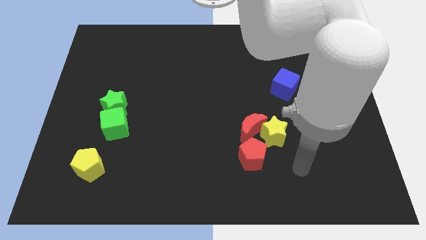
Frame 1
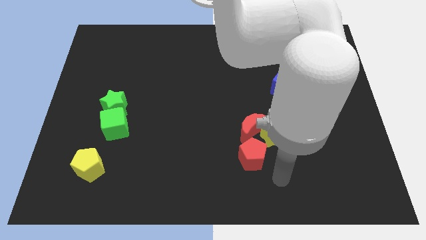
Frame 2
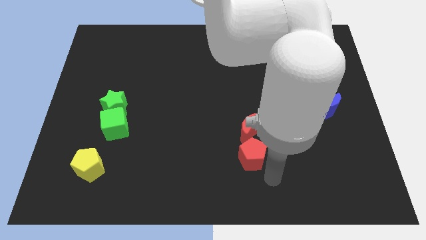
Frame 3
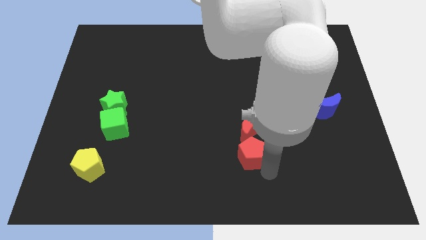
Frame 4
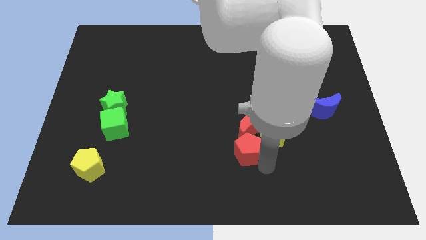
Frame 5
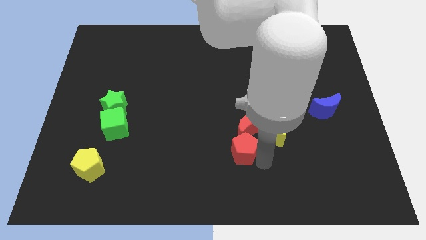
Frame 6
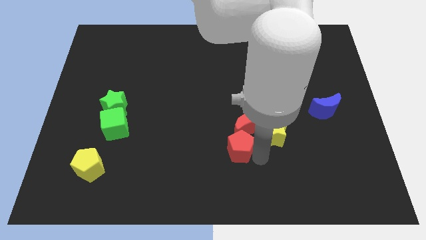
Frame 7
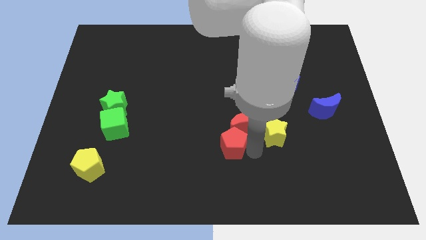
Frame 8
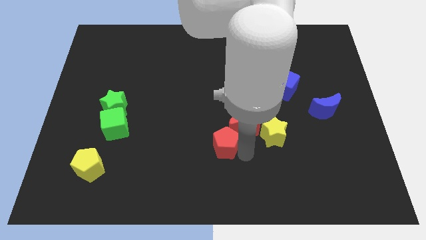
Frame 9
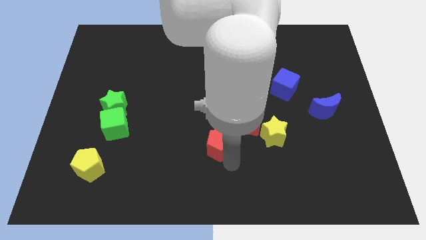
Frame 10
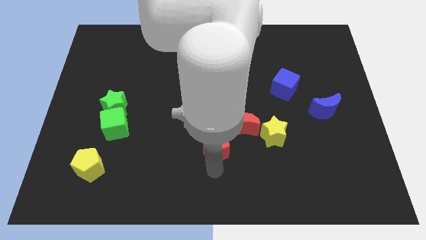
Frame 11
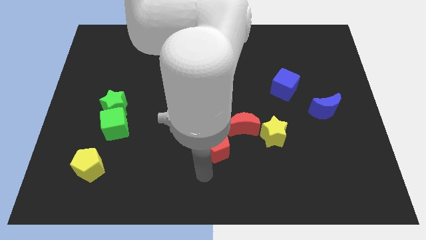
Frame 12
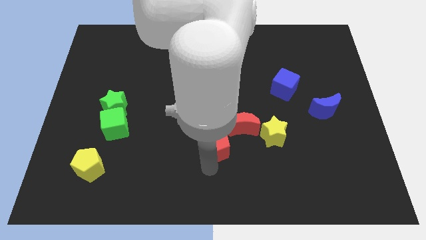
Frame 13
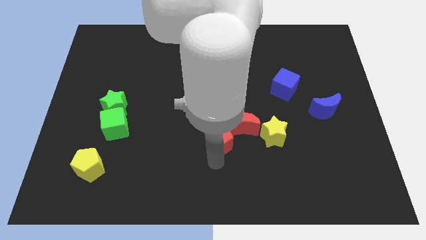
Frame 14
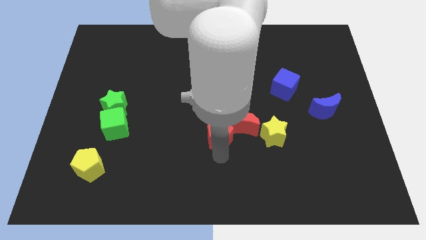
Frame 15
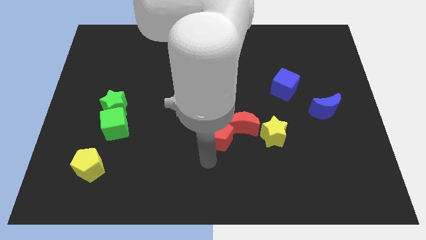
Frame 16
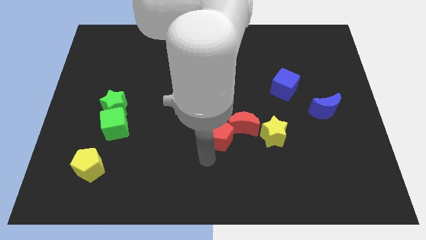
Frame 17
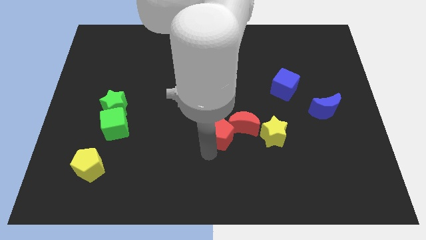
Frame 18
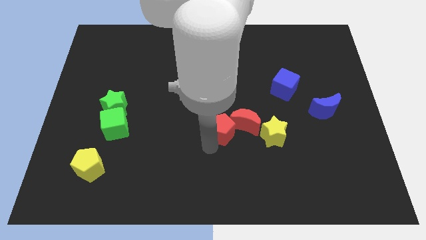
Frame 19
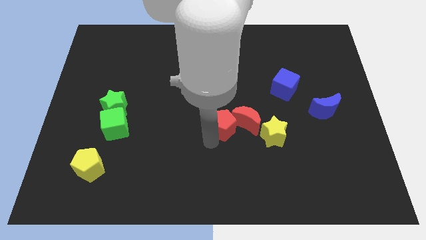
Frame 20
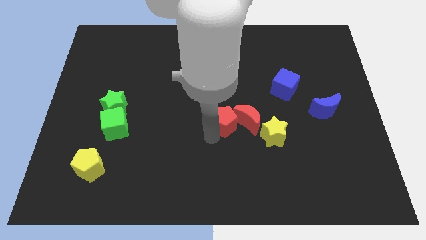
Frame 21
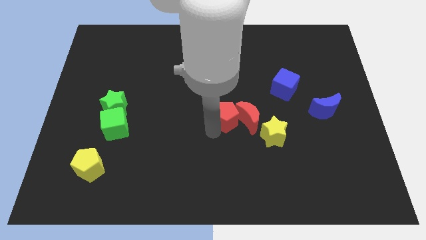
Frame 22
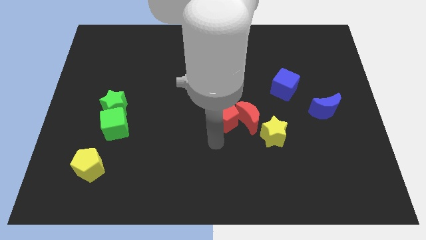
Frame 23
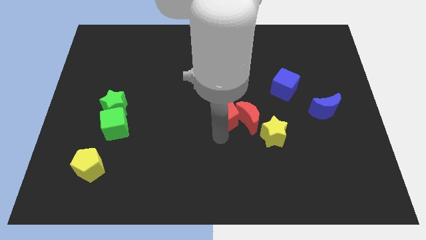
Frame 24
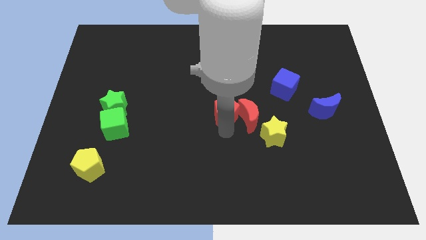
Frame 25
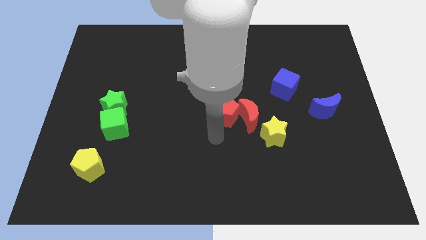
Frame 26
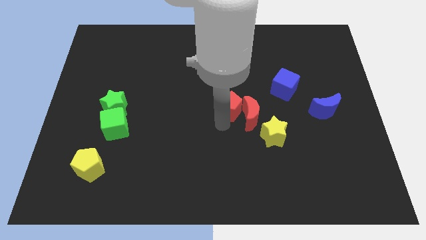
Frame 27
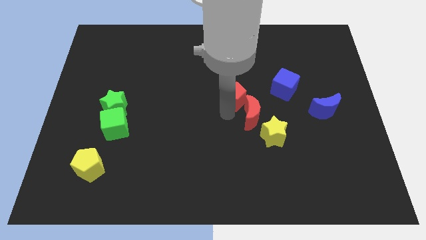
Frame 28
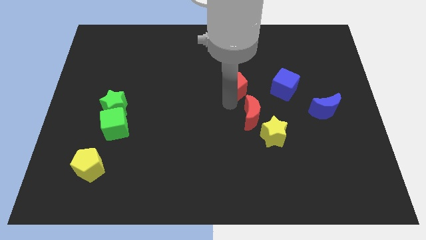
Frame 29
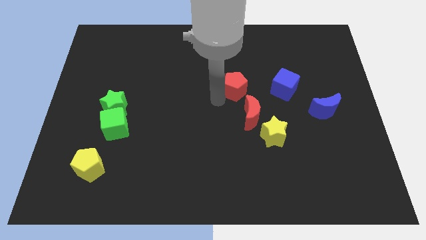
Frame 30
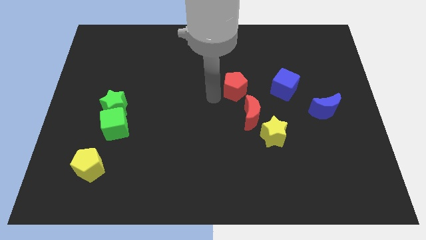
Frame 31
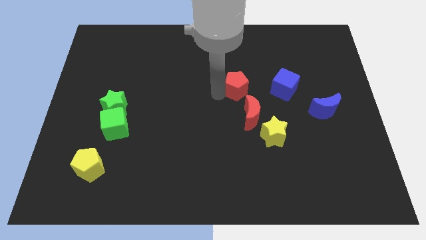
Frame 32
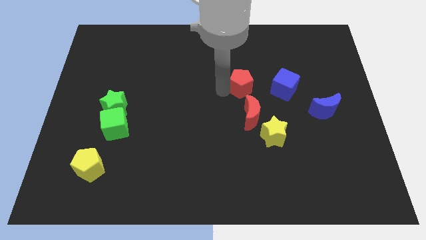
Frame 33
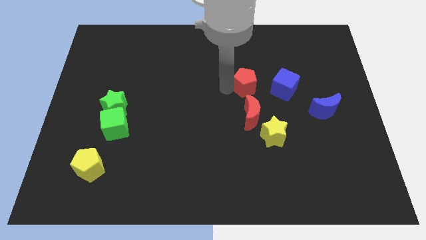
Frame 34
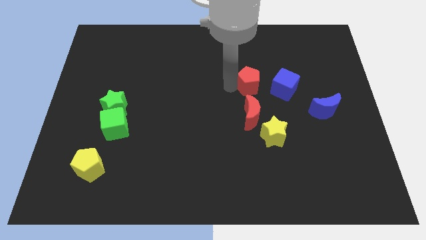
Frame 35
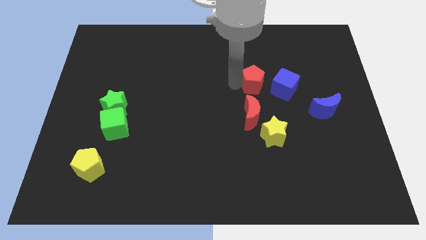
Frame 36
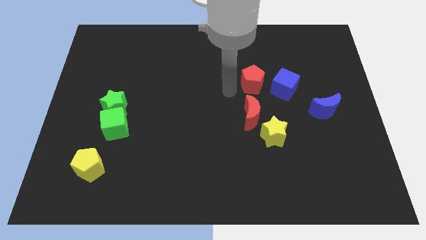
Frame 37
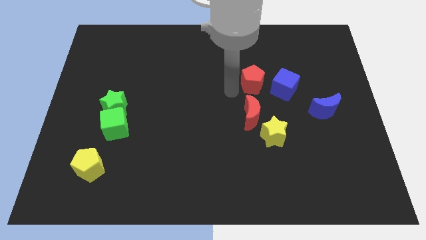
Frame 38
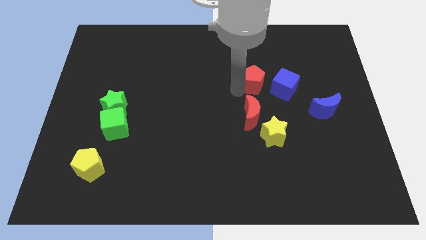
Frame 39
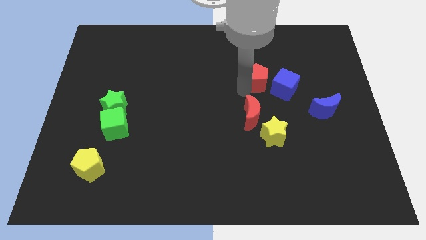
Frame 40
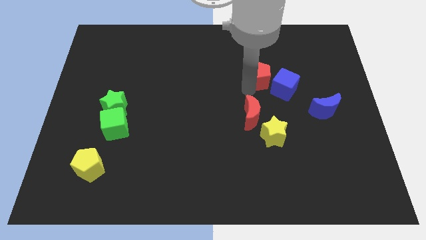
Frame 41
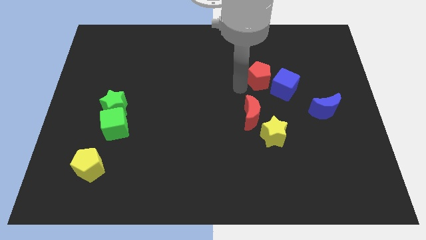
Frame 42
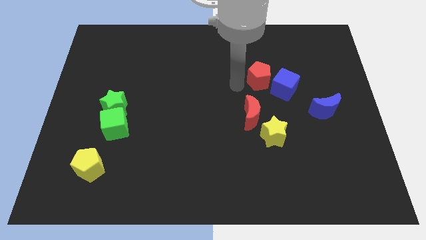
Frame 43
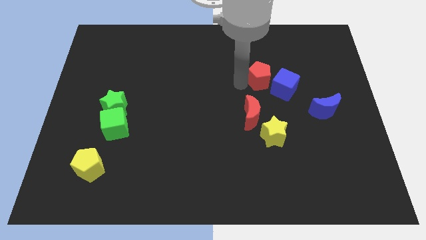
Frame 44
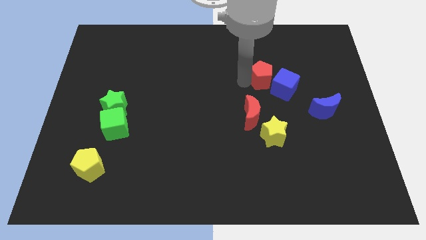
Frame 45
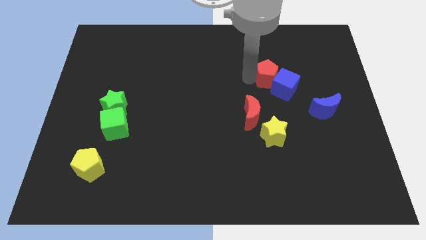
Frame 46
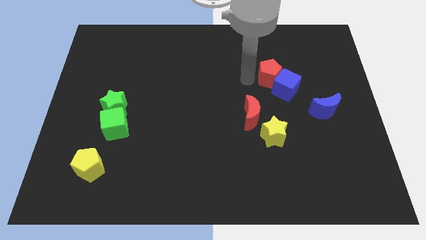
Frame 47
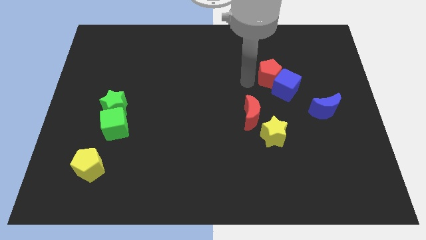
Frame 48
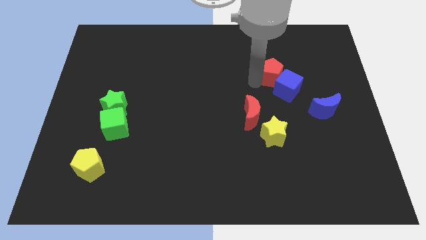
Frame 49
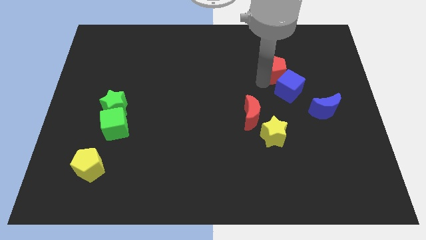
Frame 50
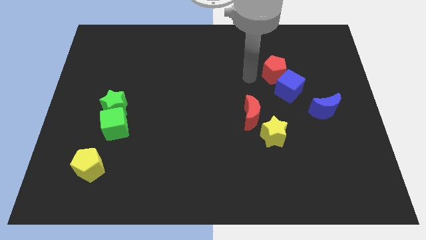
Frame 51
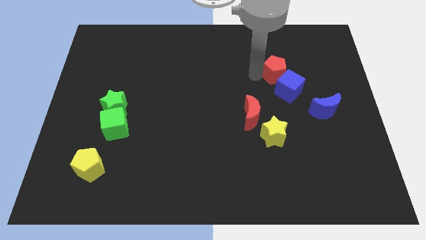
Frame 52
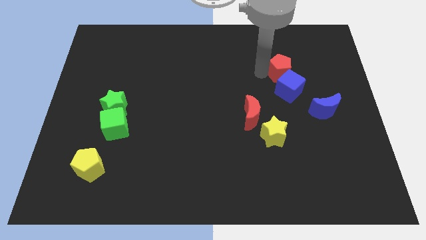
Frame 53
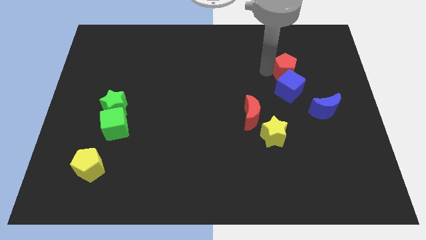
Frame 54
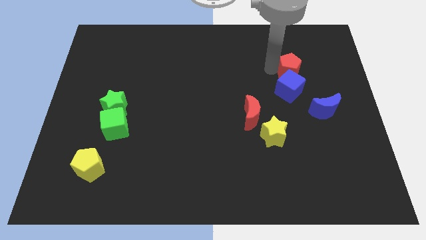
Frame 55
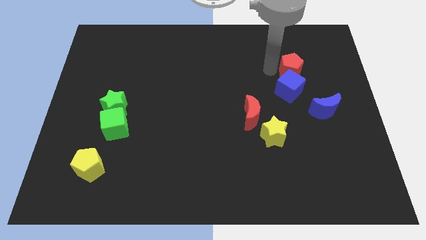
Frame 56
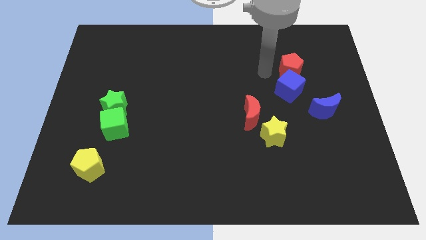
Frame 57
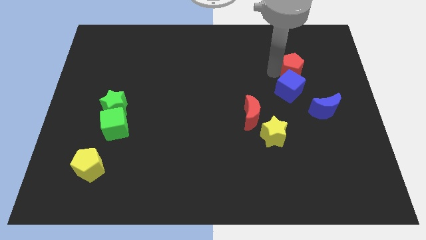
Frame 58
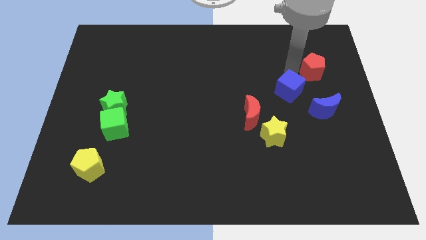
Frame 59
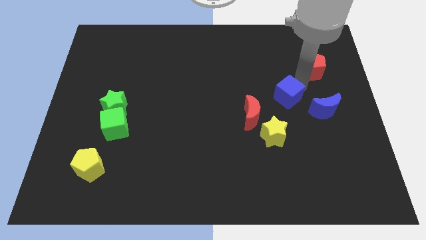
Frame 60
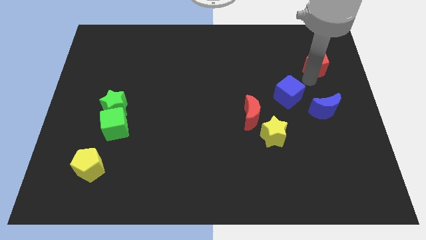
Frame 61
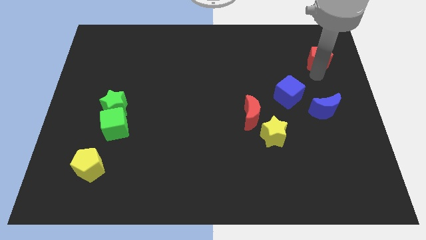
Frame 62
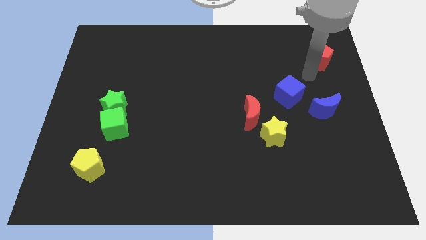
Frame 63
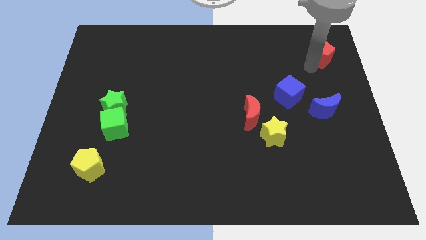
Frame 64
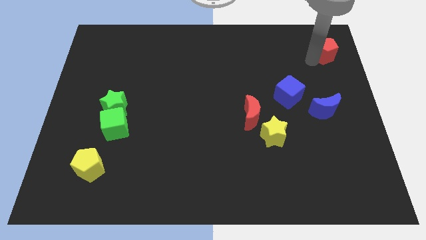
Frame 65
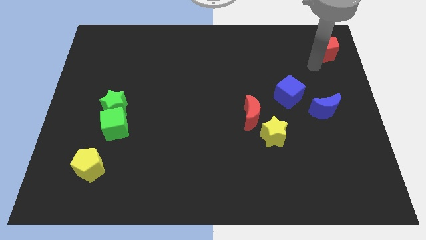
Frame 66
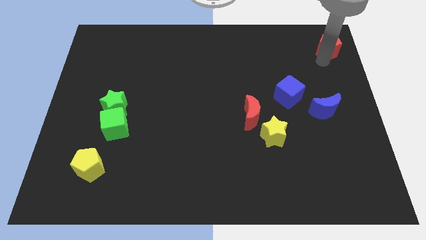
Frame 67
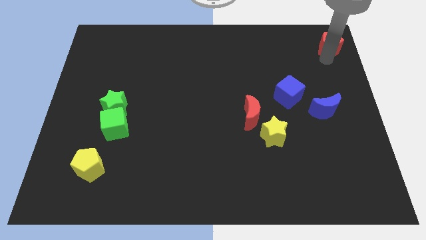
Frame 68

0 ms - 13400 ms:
move the red pentagon to the upper right corner

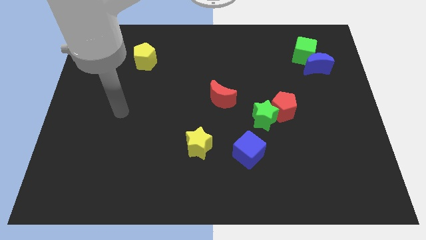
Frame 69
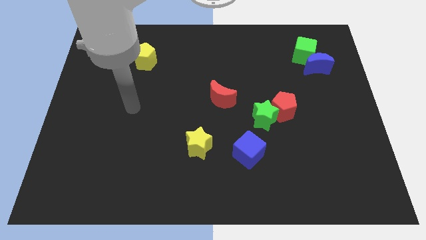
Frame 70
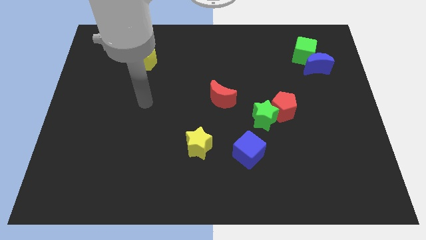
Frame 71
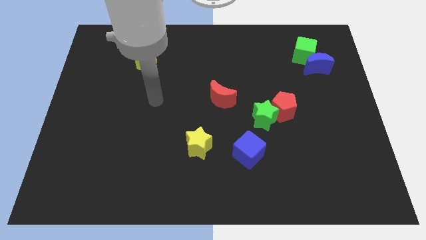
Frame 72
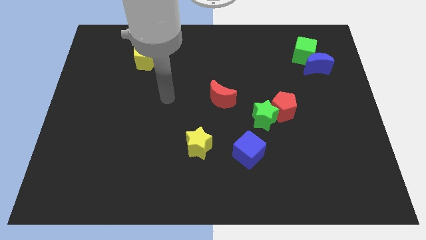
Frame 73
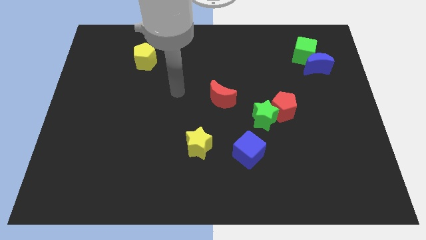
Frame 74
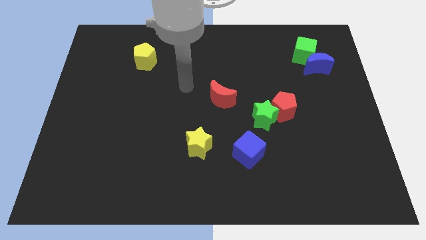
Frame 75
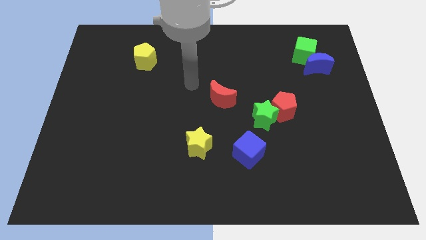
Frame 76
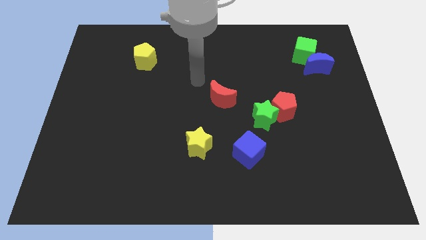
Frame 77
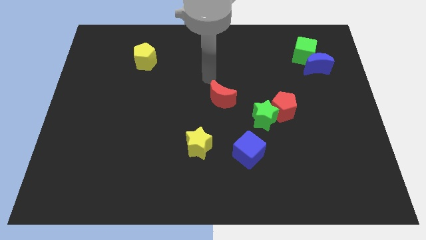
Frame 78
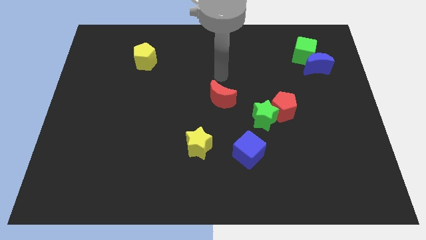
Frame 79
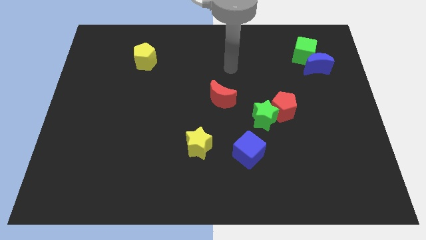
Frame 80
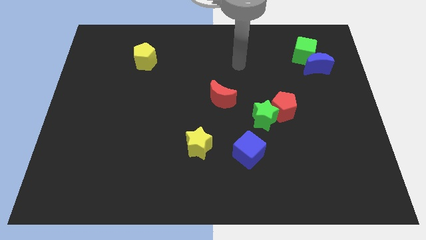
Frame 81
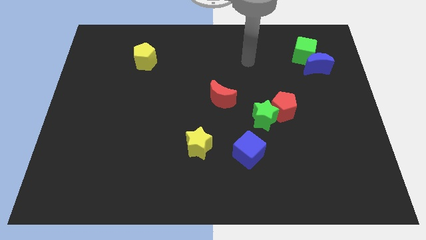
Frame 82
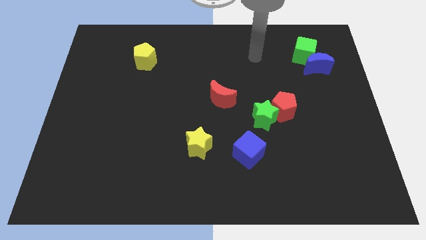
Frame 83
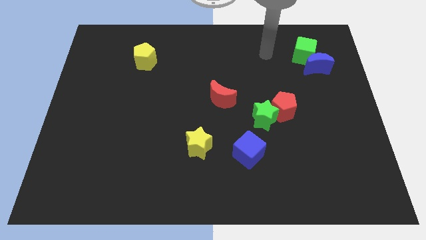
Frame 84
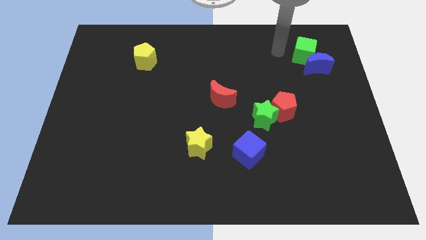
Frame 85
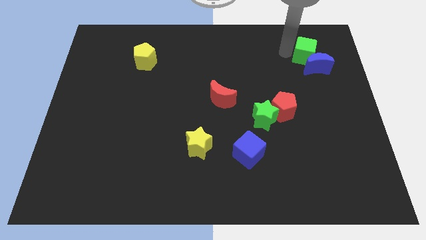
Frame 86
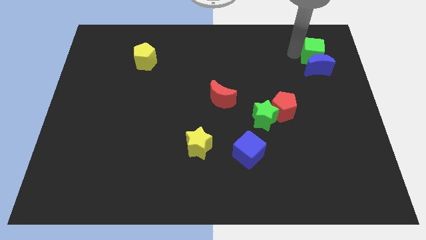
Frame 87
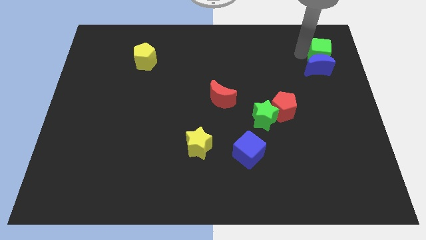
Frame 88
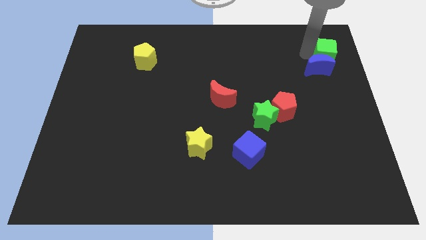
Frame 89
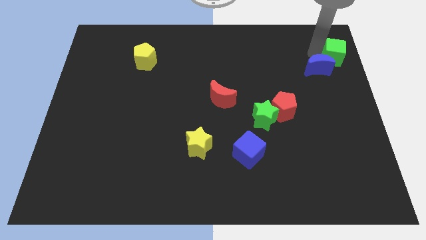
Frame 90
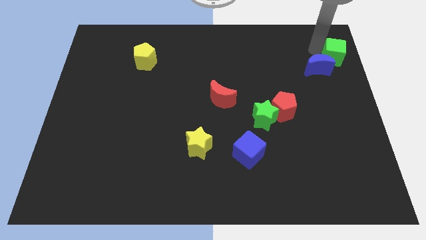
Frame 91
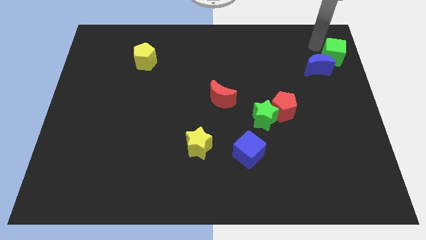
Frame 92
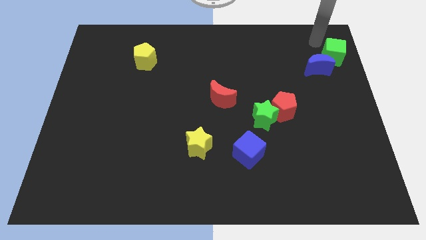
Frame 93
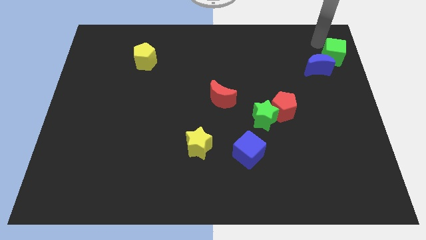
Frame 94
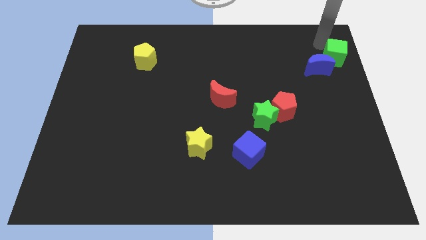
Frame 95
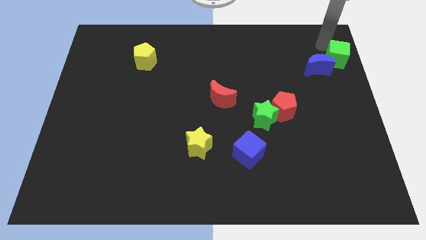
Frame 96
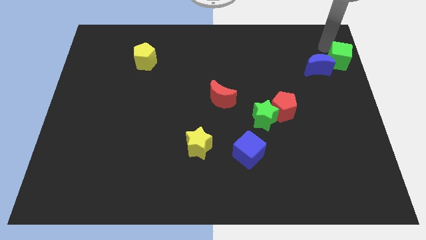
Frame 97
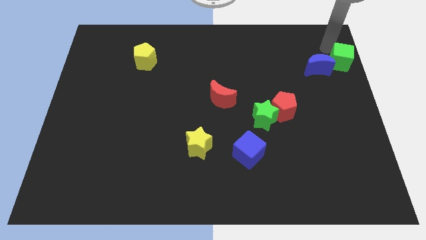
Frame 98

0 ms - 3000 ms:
put the green cube to the right side of the board
